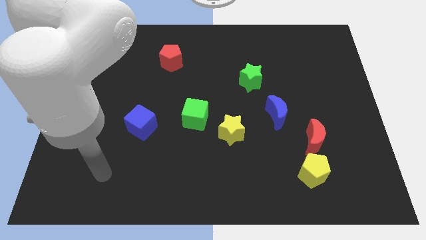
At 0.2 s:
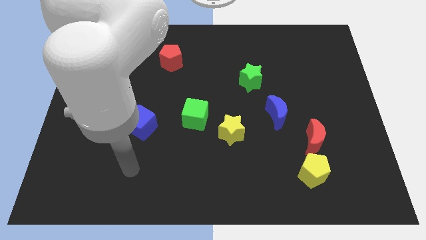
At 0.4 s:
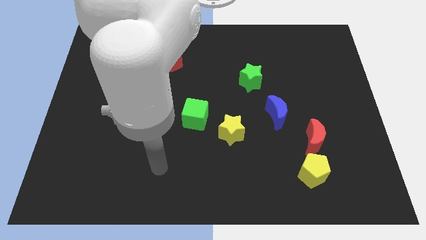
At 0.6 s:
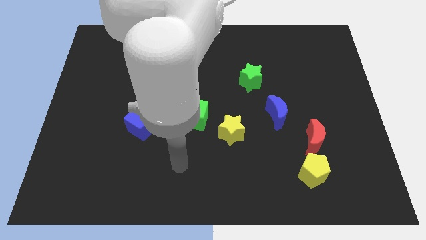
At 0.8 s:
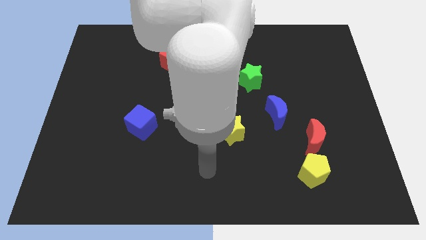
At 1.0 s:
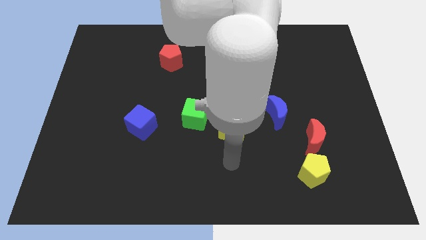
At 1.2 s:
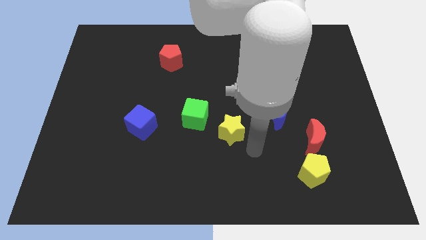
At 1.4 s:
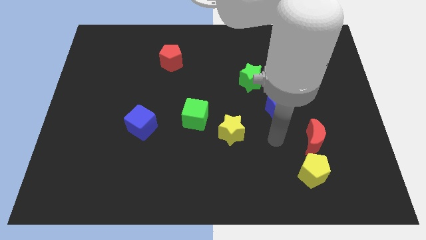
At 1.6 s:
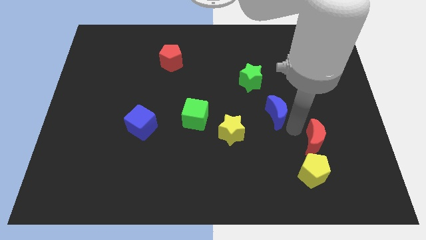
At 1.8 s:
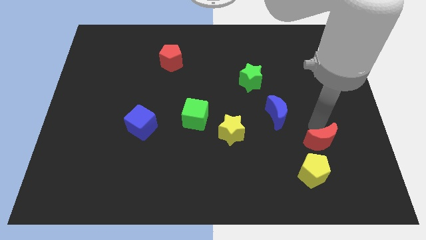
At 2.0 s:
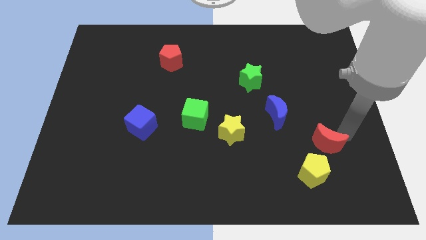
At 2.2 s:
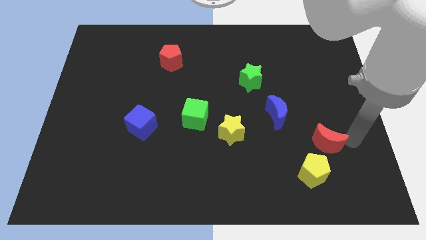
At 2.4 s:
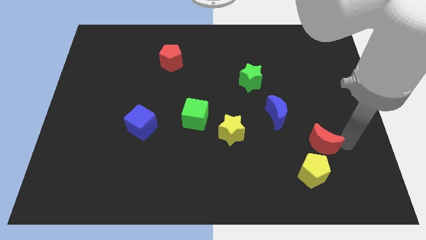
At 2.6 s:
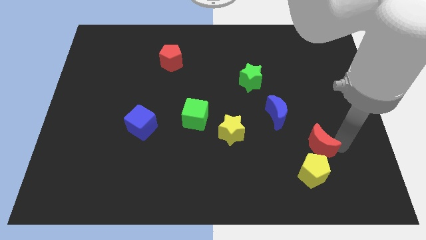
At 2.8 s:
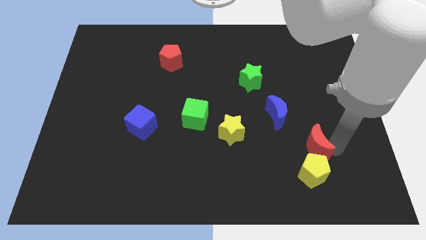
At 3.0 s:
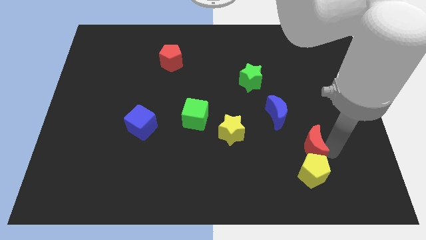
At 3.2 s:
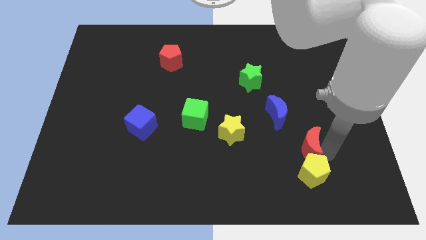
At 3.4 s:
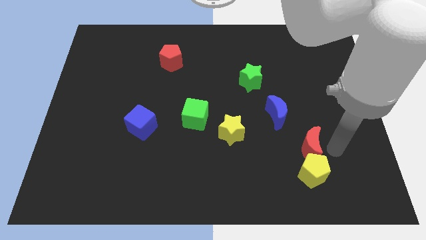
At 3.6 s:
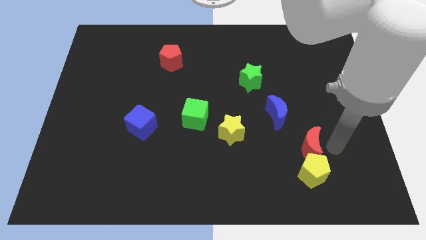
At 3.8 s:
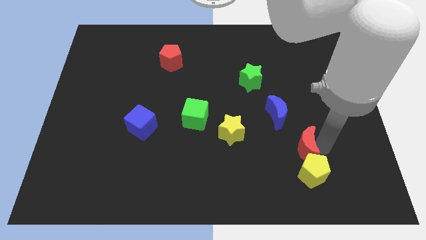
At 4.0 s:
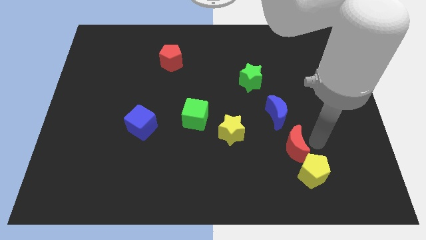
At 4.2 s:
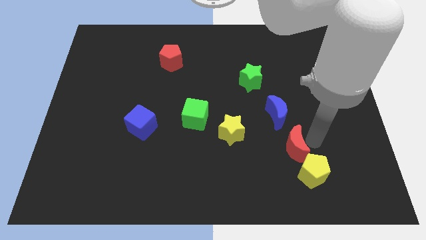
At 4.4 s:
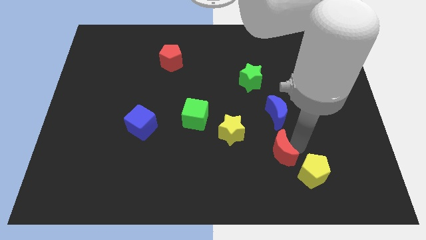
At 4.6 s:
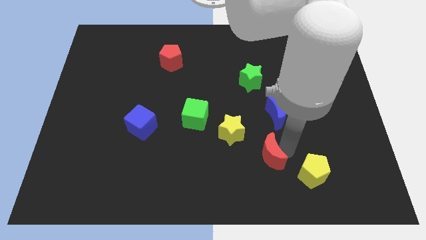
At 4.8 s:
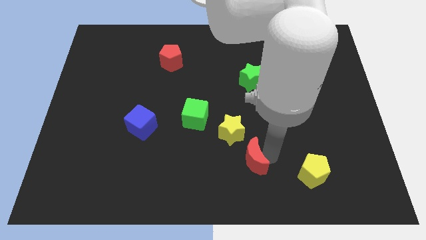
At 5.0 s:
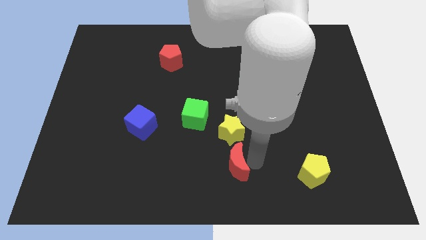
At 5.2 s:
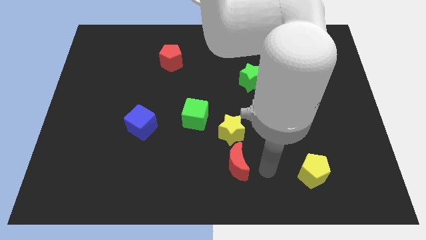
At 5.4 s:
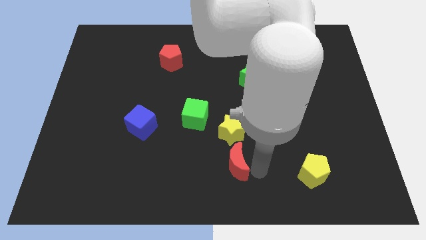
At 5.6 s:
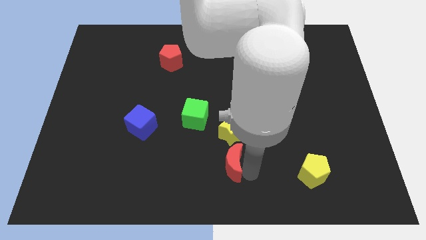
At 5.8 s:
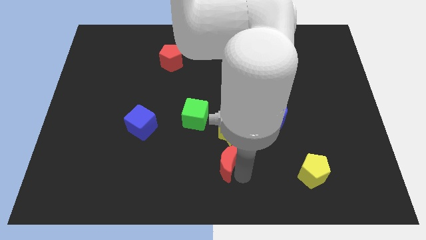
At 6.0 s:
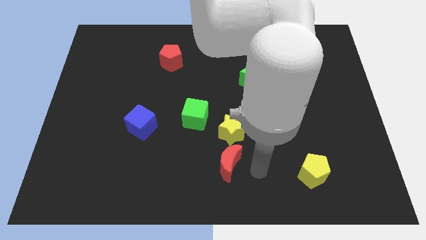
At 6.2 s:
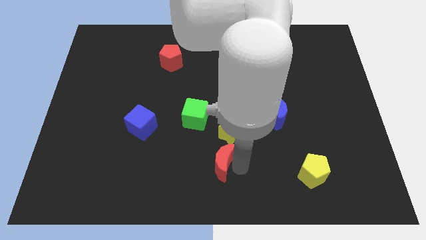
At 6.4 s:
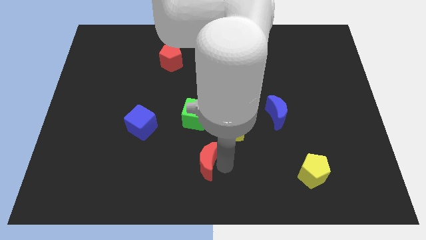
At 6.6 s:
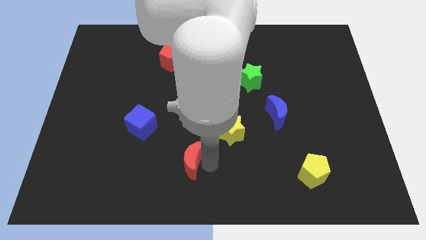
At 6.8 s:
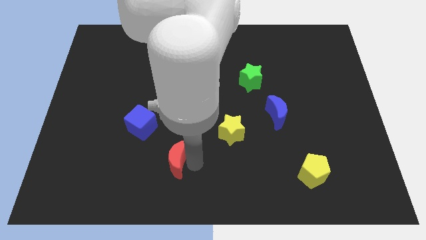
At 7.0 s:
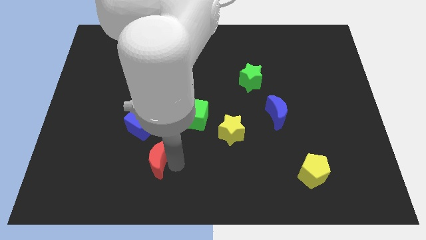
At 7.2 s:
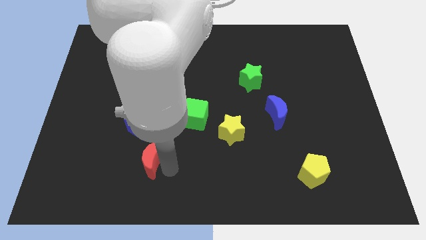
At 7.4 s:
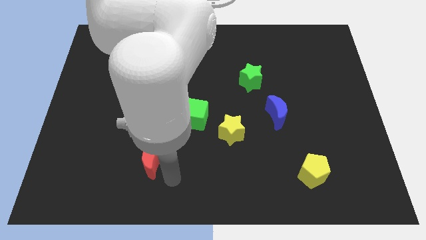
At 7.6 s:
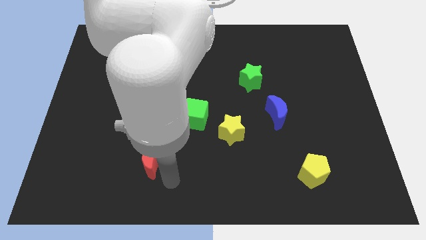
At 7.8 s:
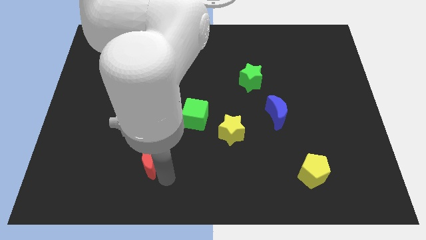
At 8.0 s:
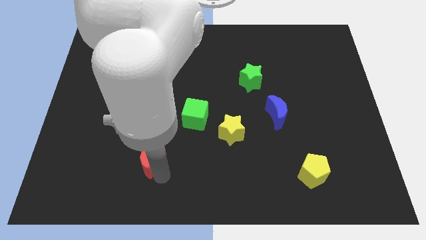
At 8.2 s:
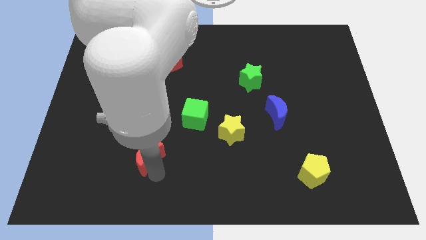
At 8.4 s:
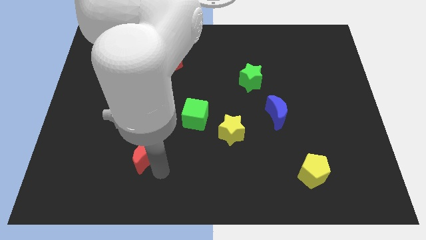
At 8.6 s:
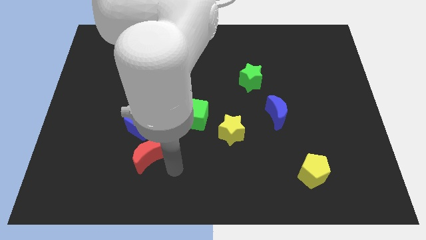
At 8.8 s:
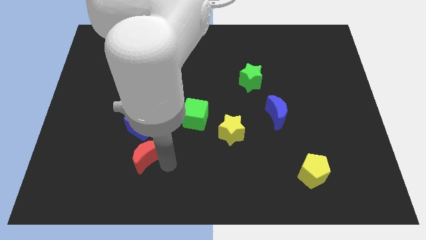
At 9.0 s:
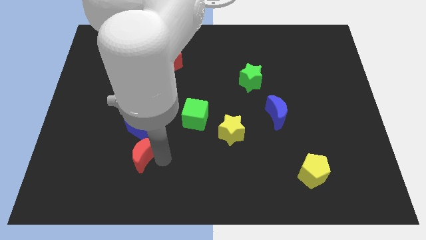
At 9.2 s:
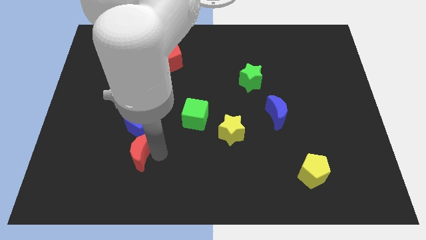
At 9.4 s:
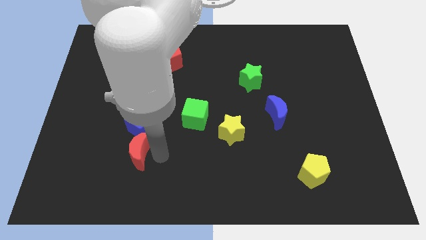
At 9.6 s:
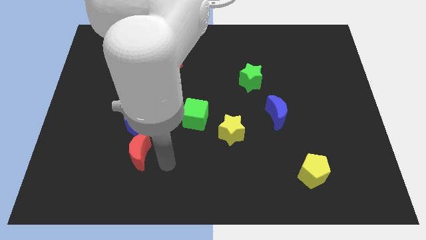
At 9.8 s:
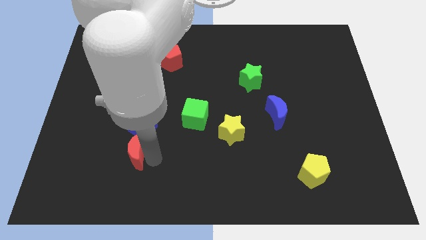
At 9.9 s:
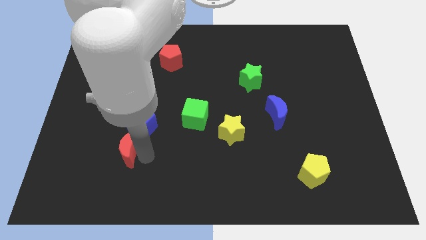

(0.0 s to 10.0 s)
push the red moon to the bottom left side of the blue cube

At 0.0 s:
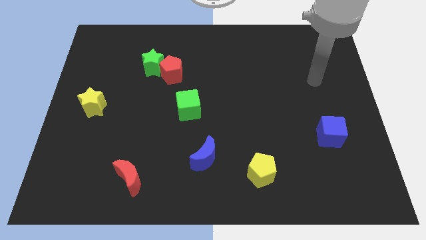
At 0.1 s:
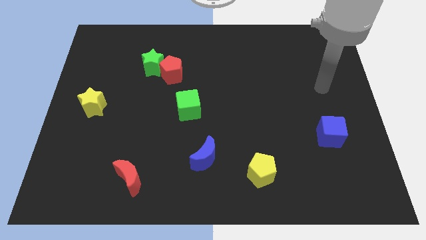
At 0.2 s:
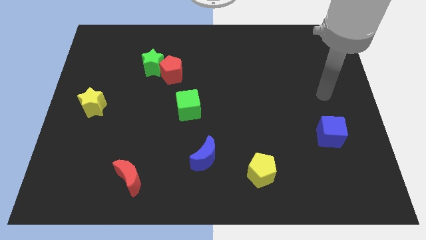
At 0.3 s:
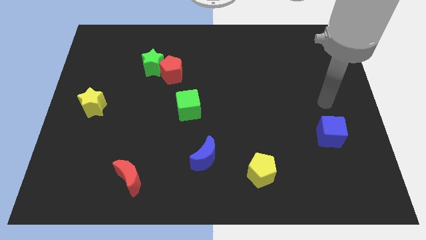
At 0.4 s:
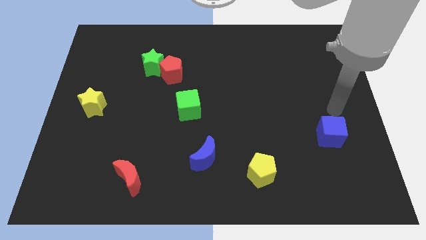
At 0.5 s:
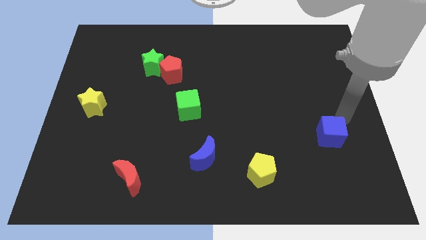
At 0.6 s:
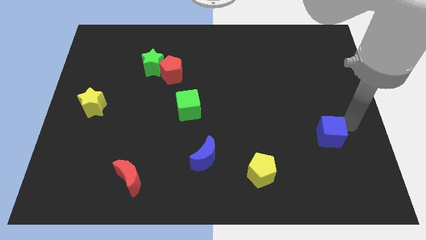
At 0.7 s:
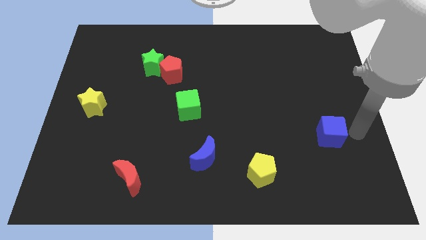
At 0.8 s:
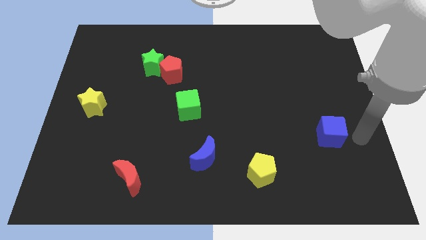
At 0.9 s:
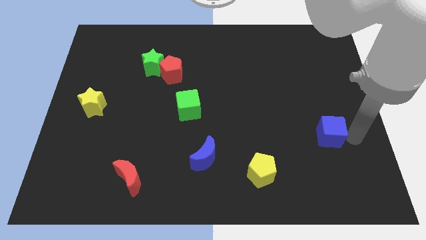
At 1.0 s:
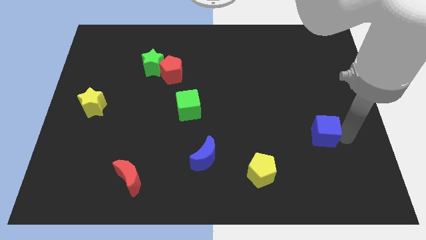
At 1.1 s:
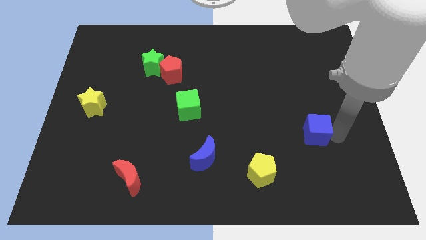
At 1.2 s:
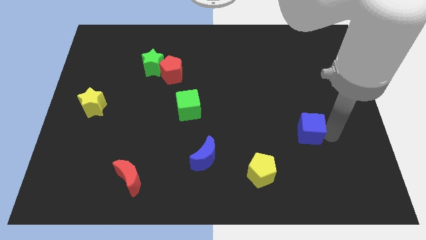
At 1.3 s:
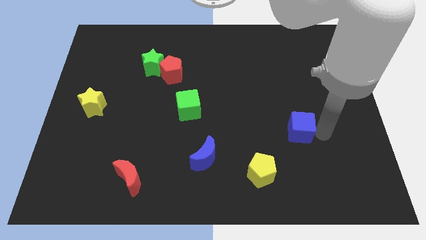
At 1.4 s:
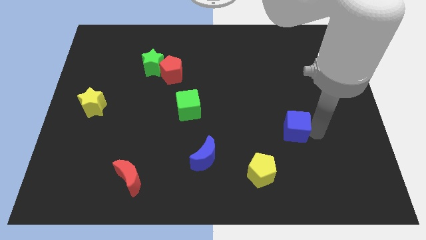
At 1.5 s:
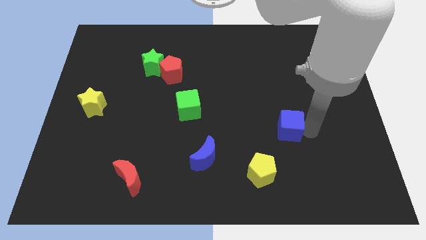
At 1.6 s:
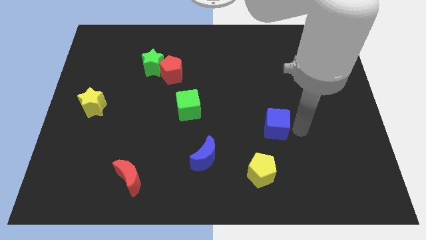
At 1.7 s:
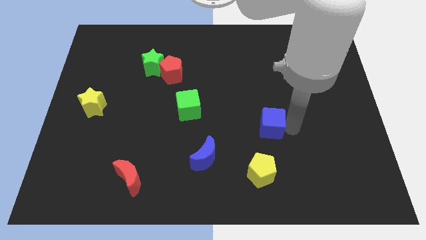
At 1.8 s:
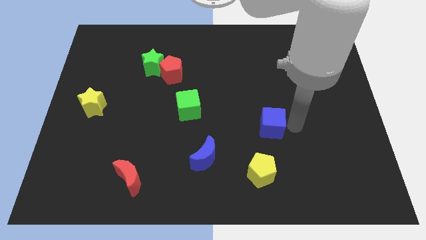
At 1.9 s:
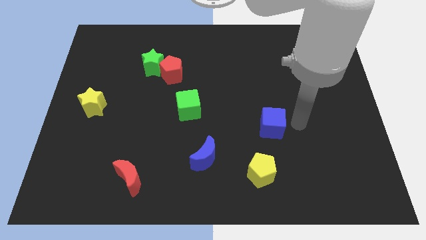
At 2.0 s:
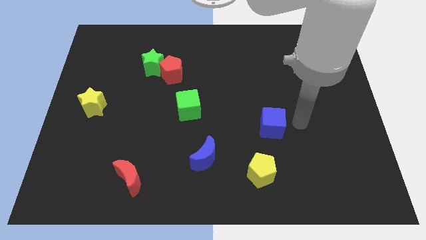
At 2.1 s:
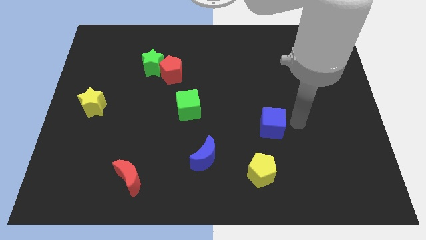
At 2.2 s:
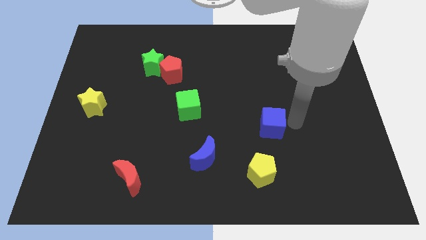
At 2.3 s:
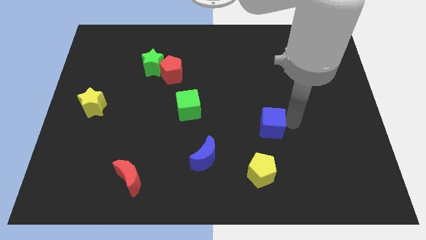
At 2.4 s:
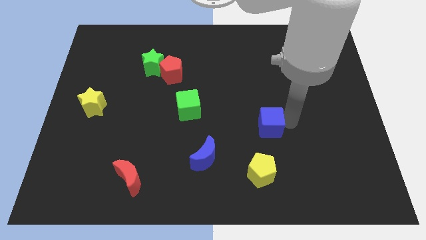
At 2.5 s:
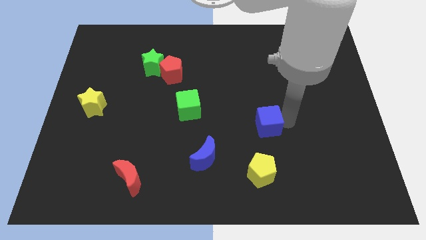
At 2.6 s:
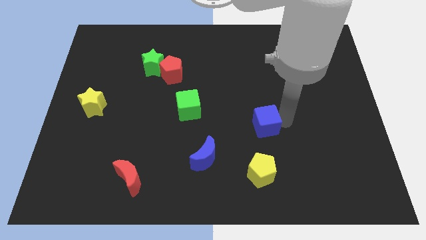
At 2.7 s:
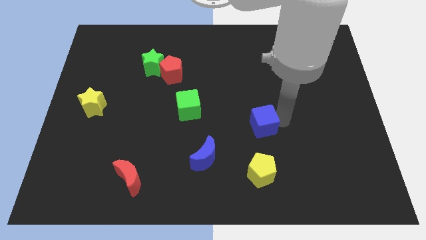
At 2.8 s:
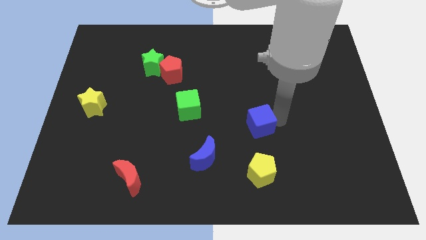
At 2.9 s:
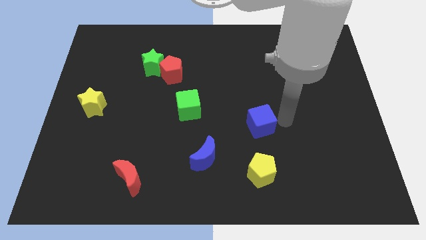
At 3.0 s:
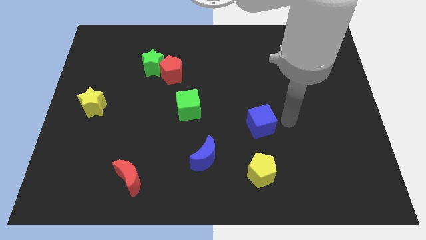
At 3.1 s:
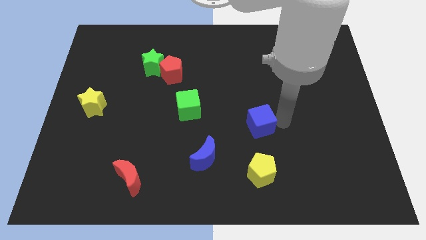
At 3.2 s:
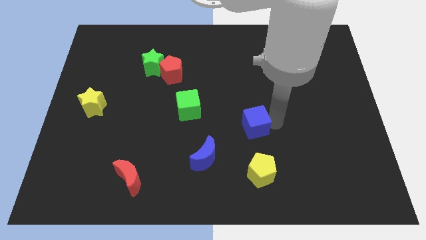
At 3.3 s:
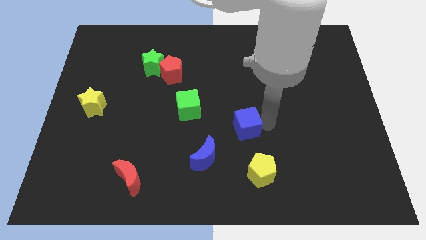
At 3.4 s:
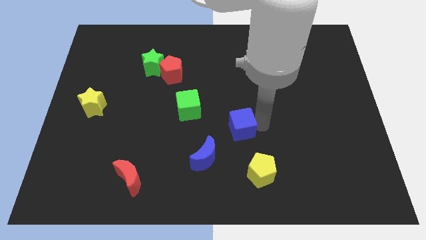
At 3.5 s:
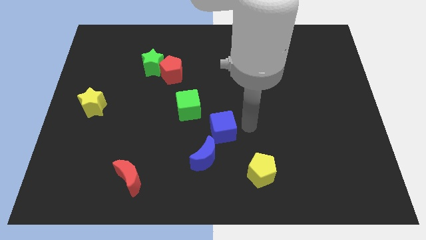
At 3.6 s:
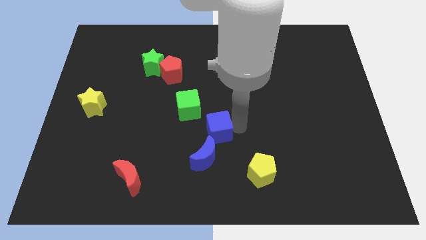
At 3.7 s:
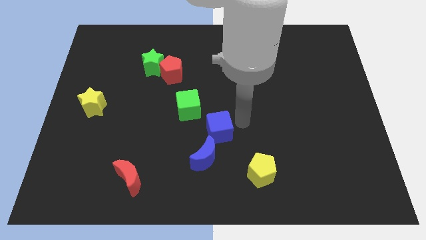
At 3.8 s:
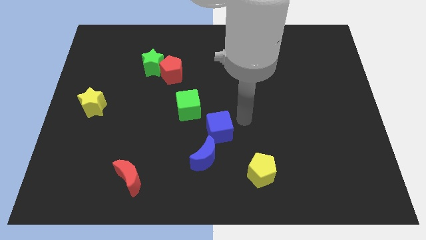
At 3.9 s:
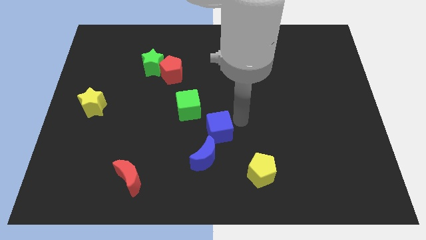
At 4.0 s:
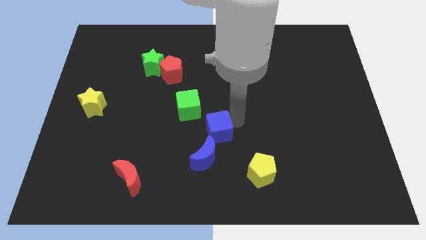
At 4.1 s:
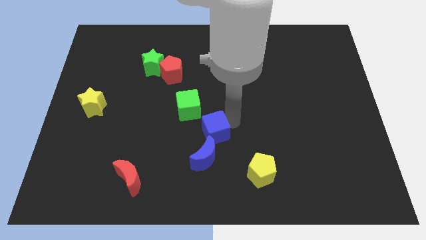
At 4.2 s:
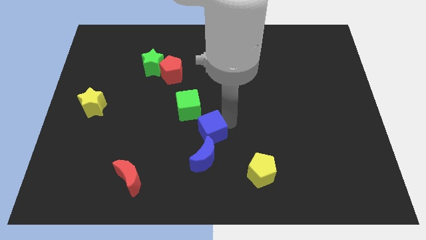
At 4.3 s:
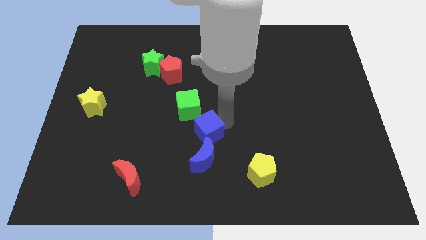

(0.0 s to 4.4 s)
push the blue cube below the green cube
